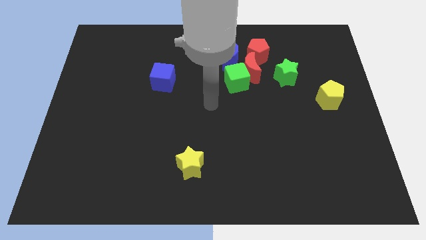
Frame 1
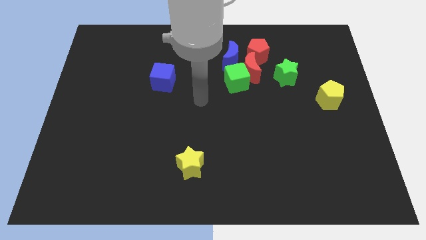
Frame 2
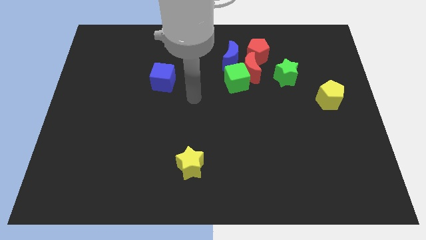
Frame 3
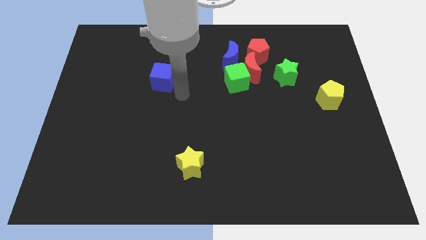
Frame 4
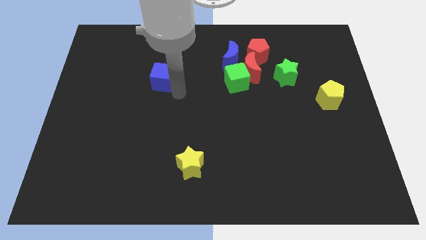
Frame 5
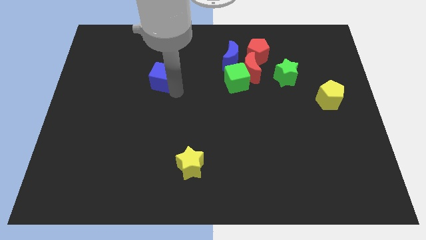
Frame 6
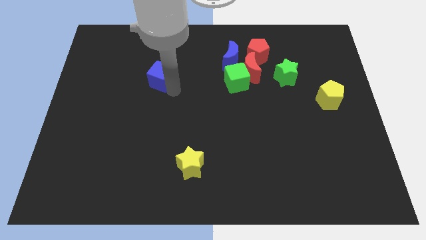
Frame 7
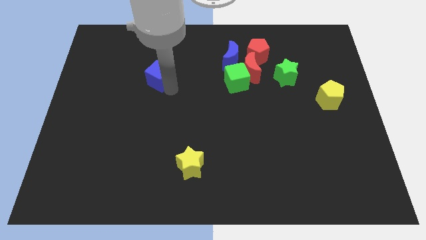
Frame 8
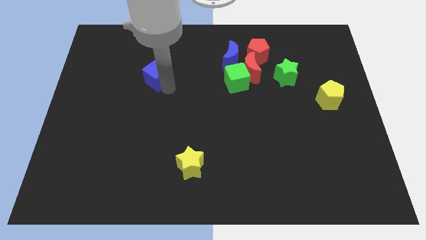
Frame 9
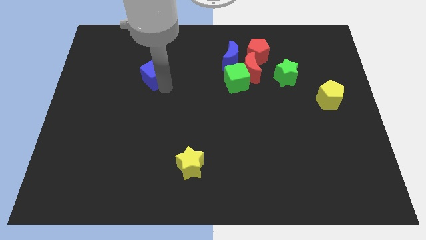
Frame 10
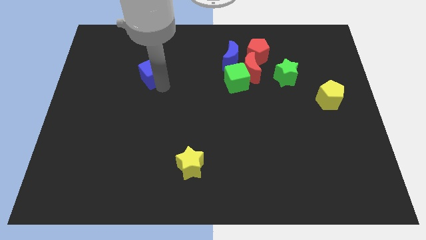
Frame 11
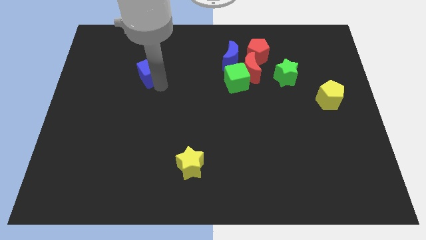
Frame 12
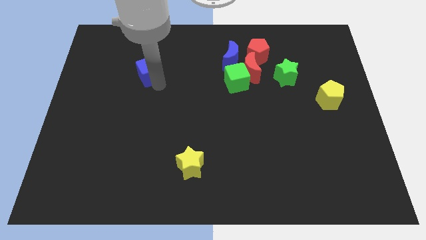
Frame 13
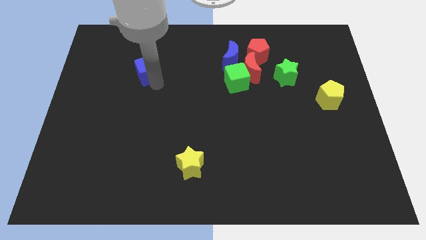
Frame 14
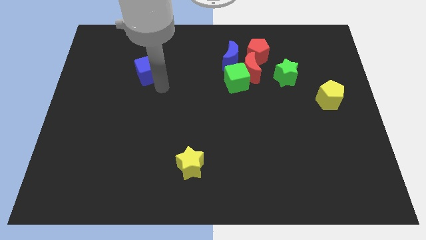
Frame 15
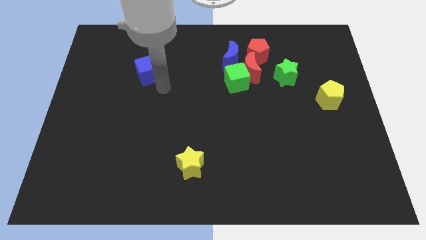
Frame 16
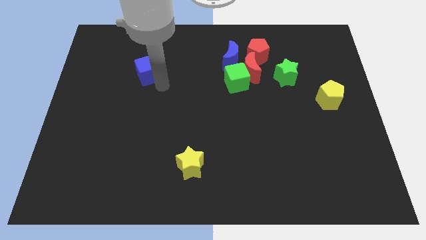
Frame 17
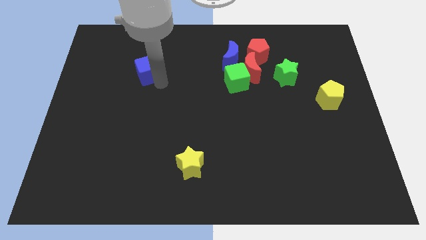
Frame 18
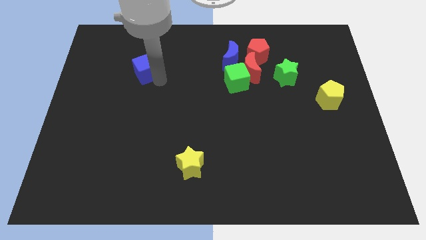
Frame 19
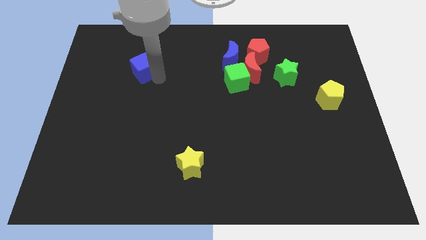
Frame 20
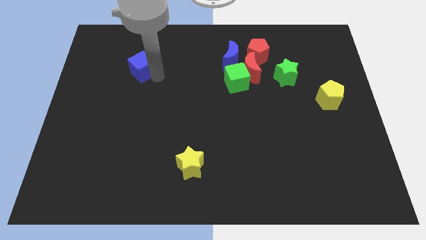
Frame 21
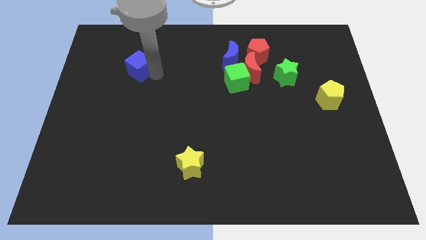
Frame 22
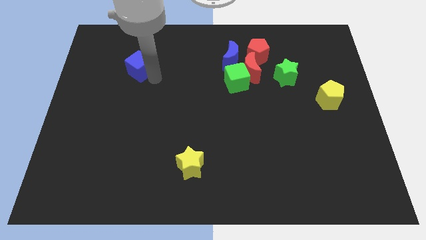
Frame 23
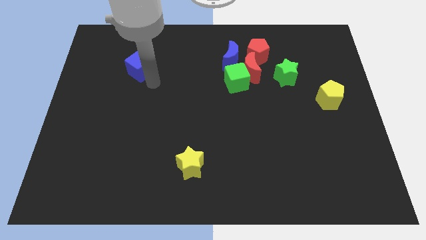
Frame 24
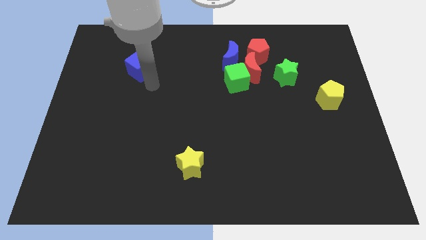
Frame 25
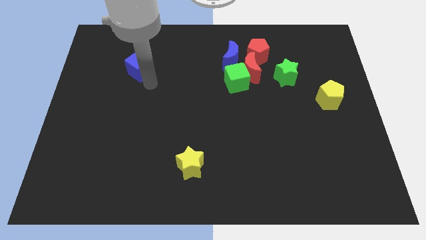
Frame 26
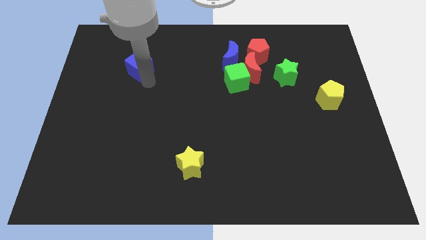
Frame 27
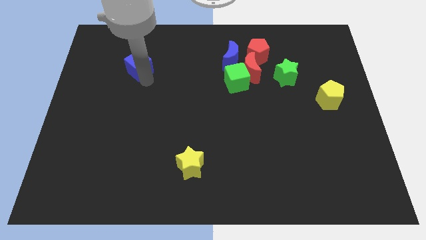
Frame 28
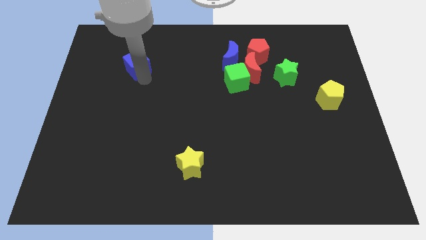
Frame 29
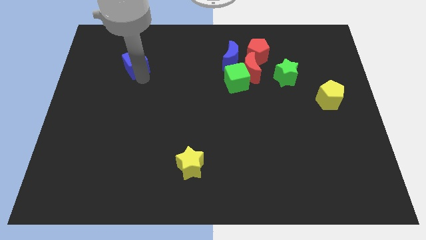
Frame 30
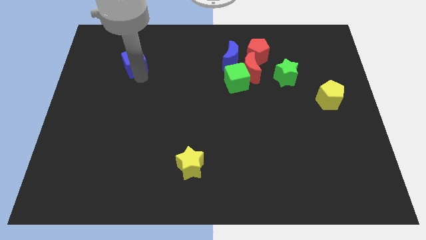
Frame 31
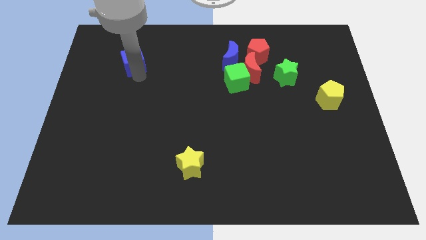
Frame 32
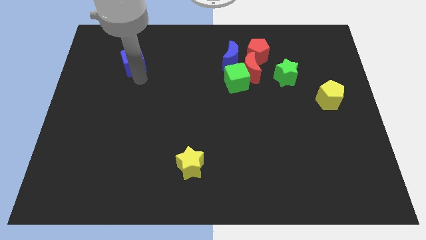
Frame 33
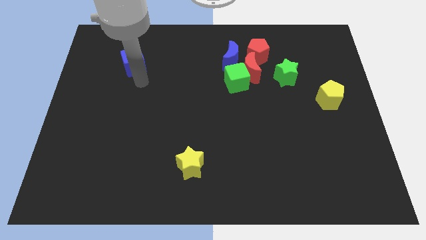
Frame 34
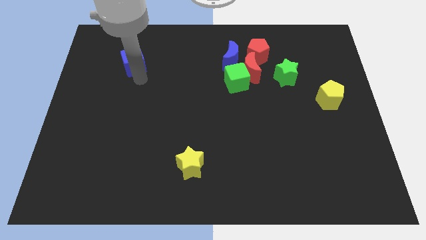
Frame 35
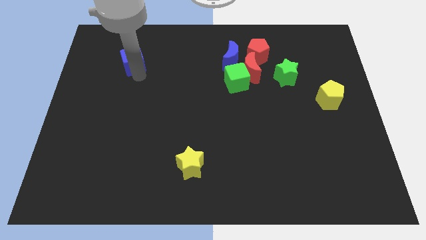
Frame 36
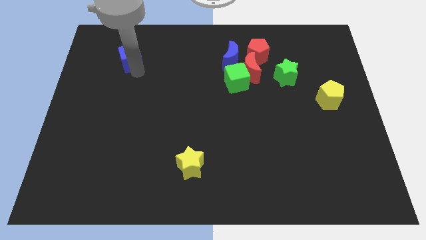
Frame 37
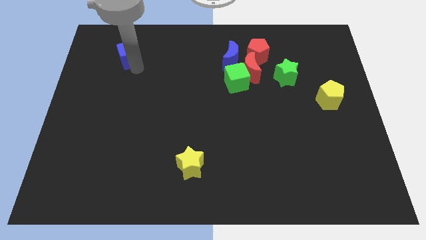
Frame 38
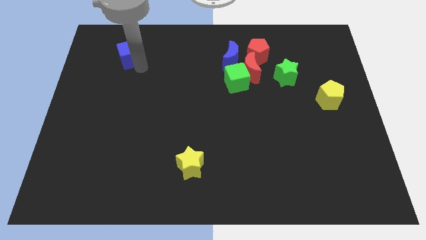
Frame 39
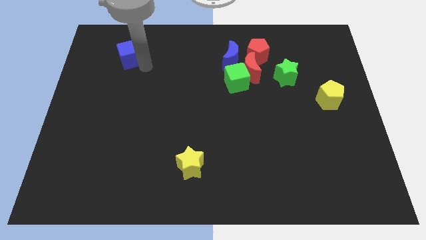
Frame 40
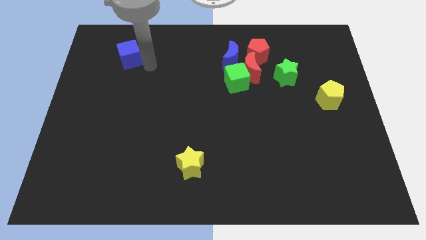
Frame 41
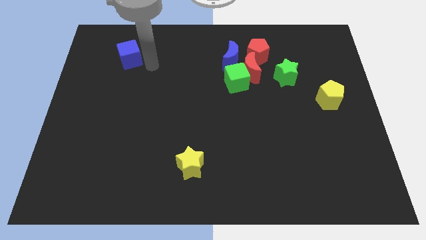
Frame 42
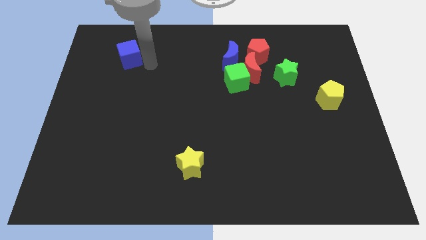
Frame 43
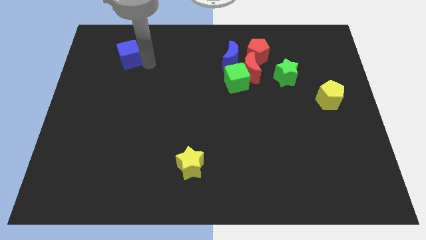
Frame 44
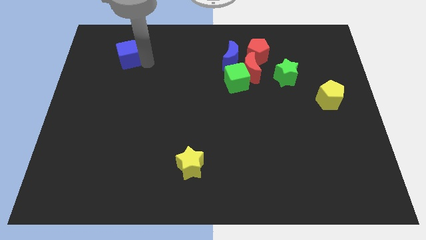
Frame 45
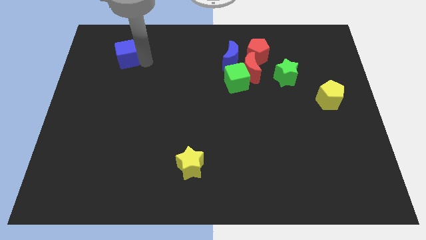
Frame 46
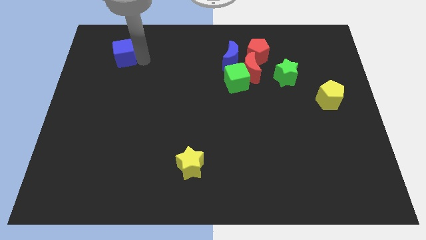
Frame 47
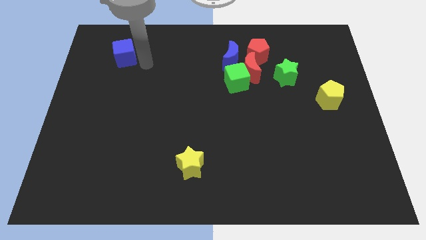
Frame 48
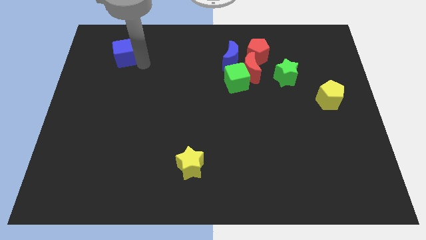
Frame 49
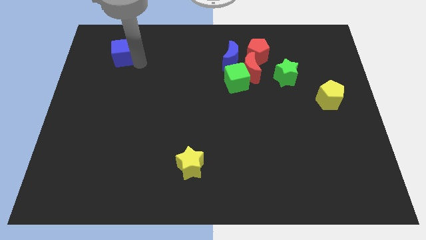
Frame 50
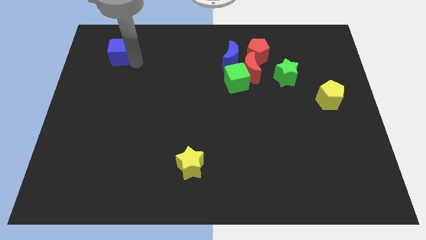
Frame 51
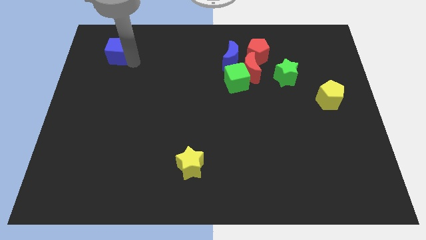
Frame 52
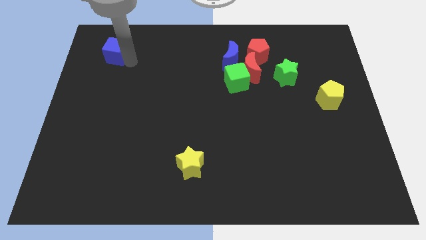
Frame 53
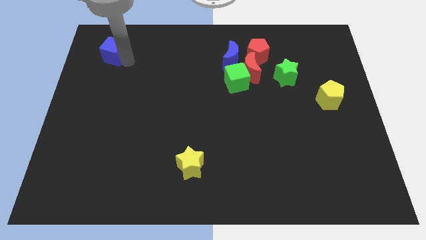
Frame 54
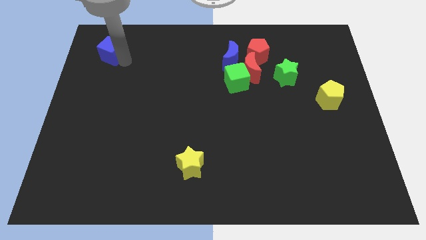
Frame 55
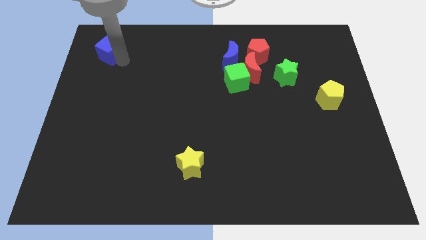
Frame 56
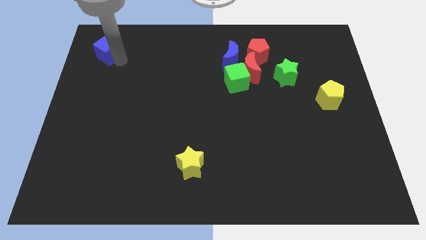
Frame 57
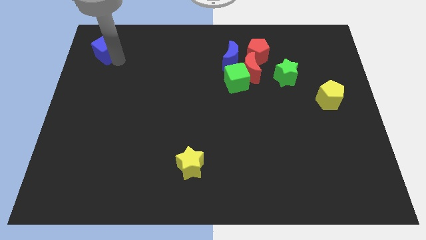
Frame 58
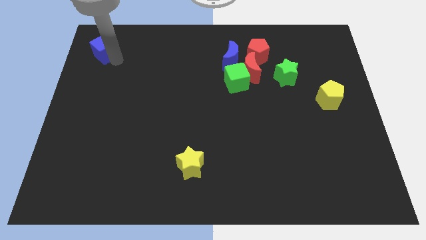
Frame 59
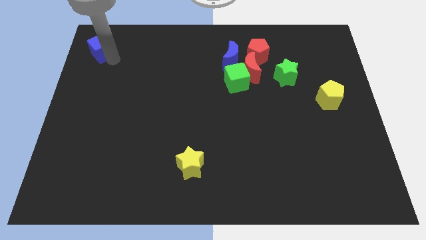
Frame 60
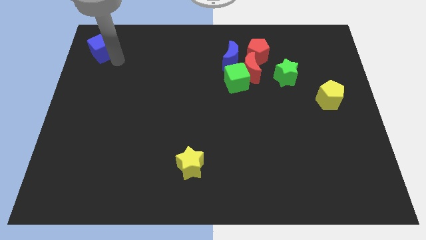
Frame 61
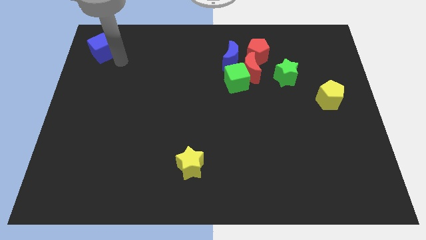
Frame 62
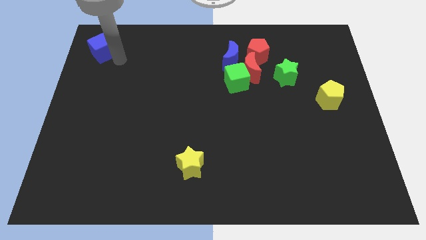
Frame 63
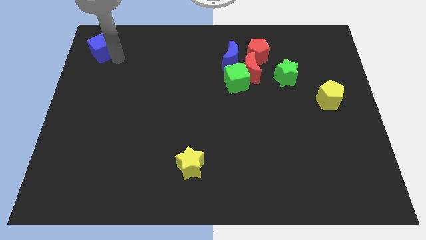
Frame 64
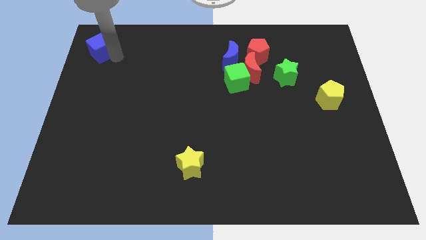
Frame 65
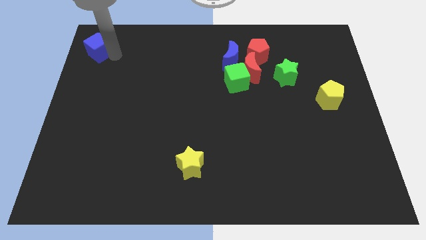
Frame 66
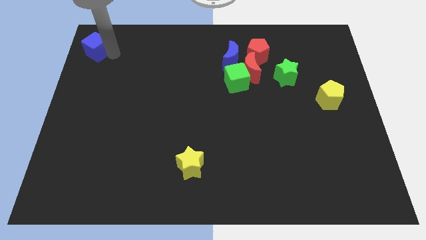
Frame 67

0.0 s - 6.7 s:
move the blue cube to the upper left corner

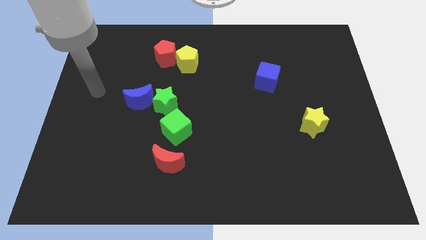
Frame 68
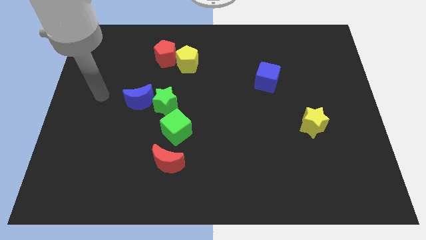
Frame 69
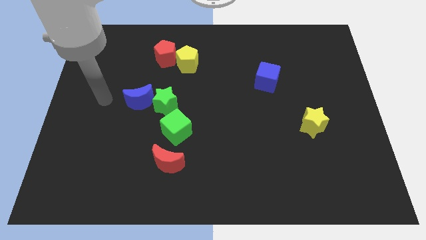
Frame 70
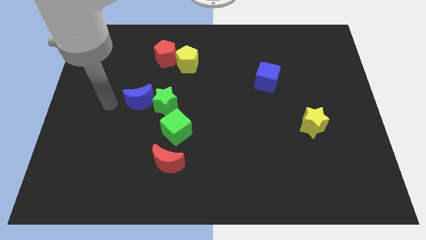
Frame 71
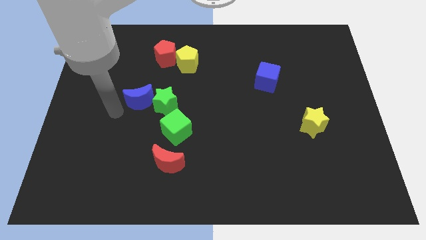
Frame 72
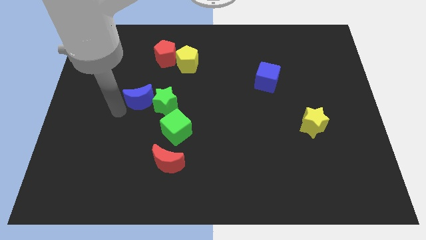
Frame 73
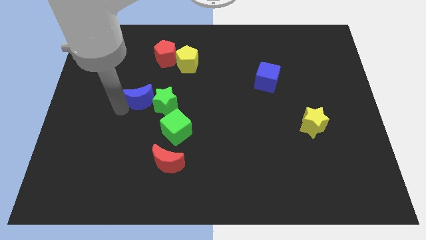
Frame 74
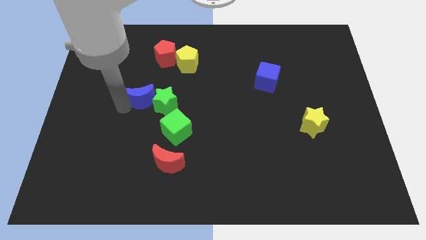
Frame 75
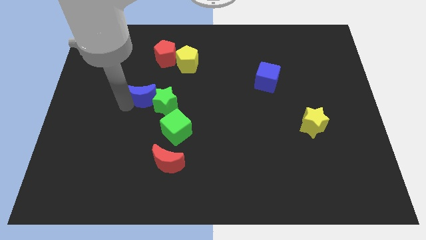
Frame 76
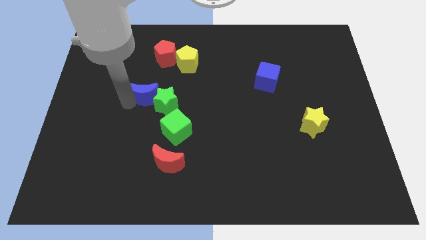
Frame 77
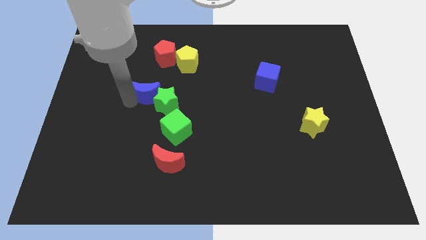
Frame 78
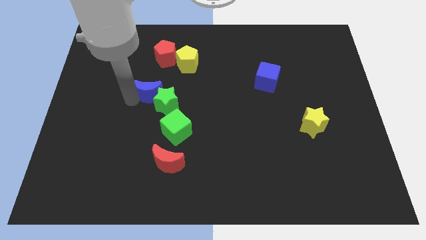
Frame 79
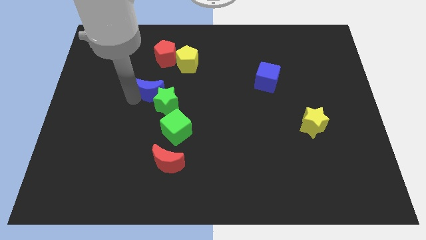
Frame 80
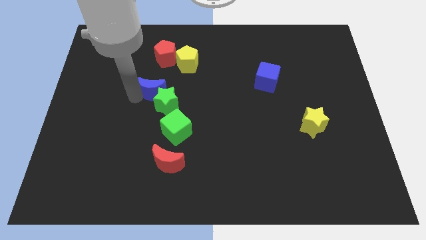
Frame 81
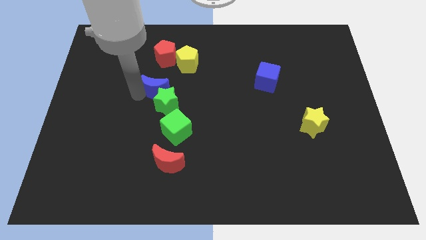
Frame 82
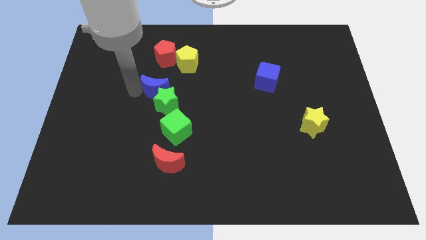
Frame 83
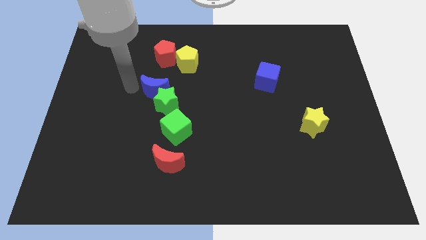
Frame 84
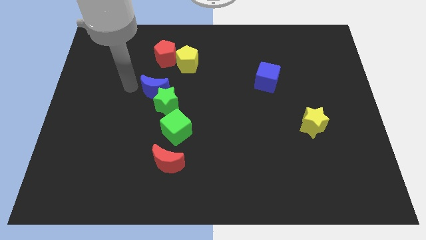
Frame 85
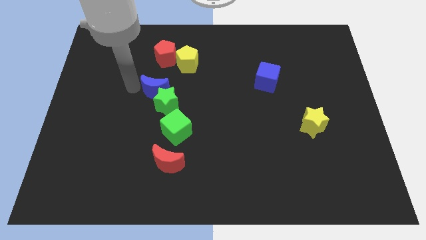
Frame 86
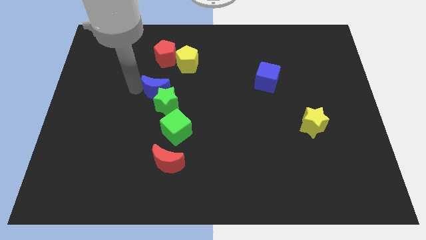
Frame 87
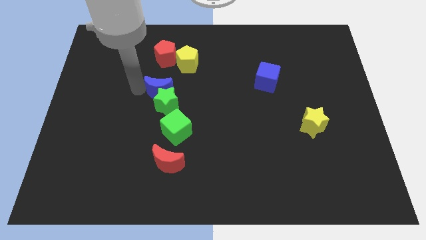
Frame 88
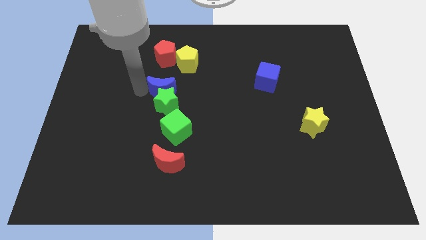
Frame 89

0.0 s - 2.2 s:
slide the blue moon to the center
